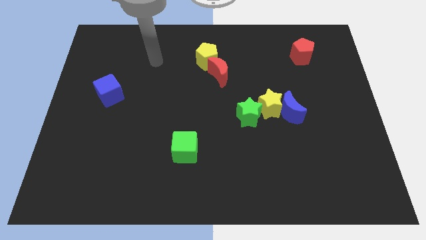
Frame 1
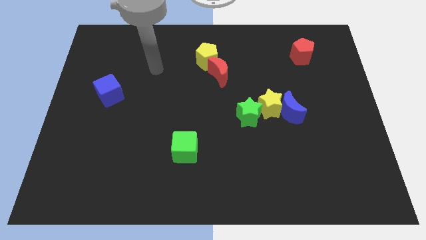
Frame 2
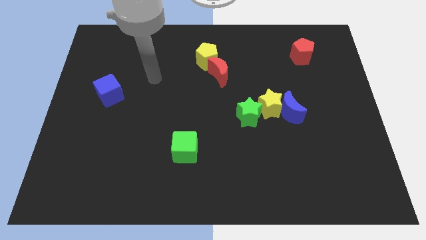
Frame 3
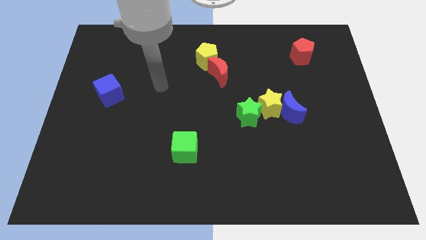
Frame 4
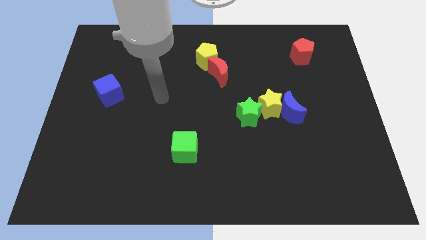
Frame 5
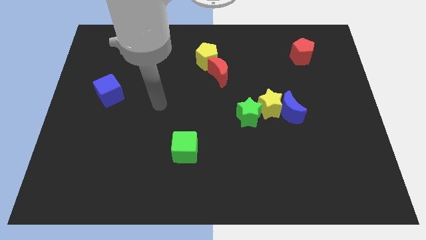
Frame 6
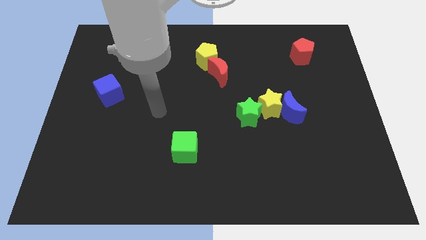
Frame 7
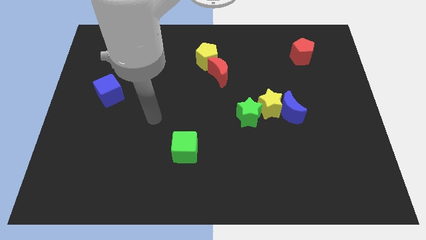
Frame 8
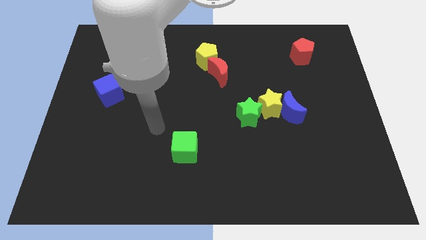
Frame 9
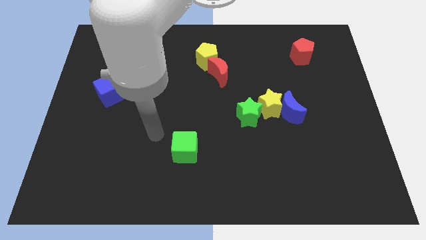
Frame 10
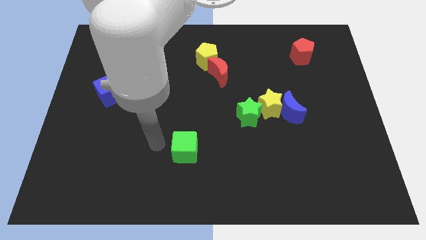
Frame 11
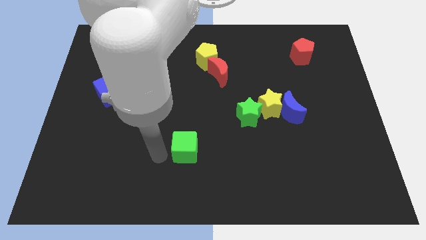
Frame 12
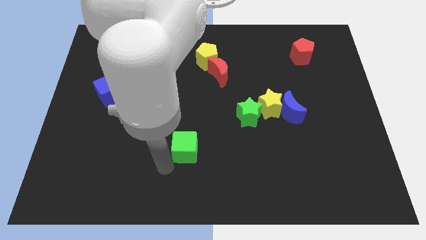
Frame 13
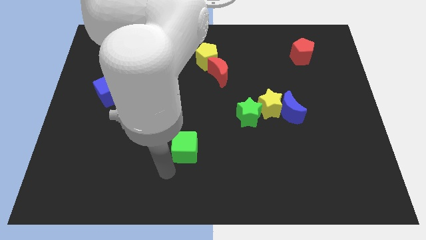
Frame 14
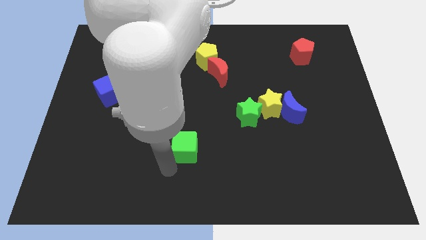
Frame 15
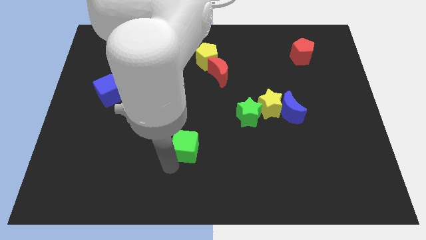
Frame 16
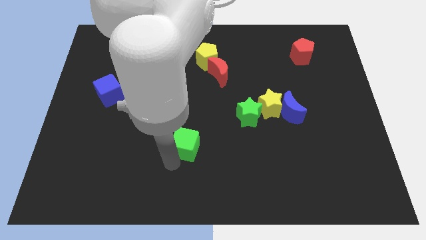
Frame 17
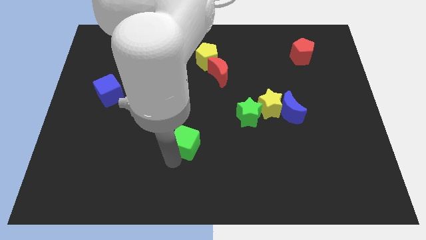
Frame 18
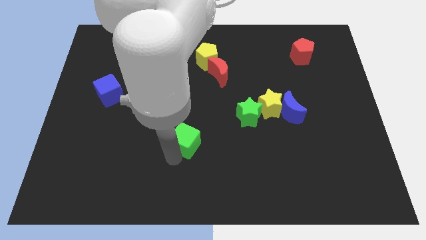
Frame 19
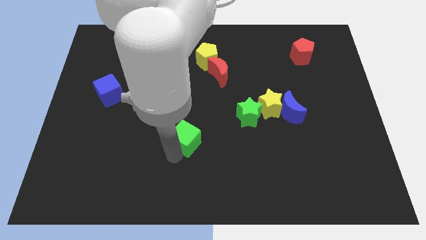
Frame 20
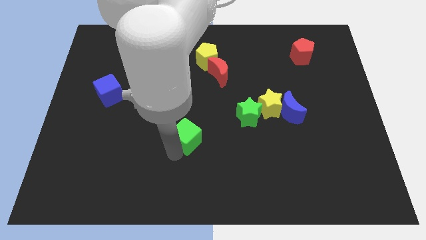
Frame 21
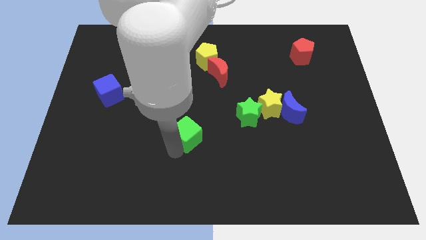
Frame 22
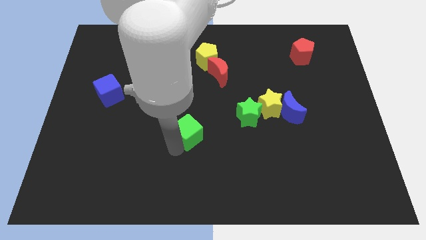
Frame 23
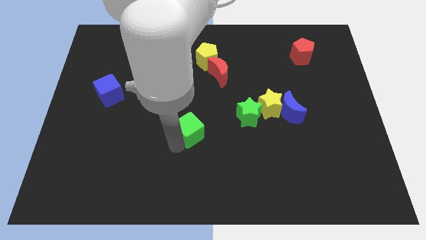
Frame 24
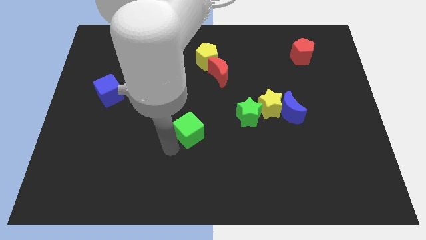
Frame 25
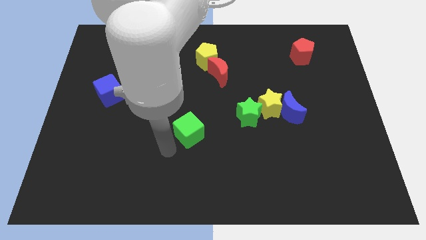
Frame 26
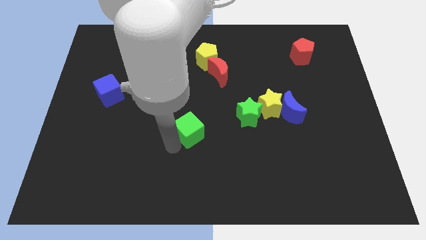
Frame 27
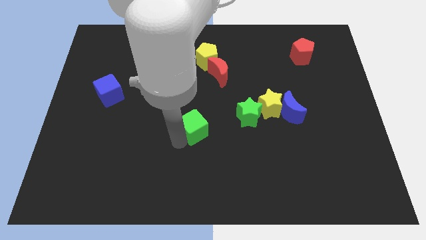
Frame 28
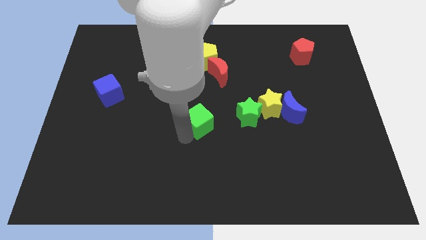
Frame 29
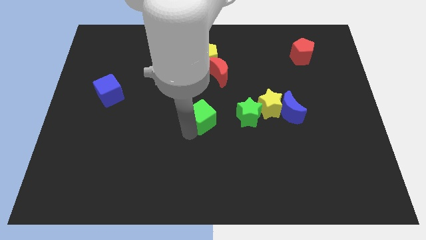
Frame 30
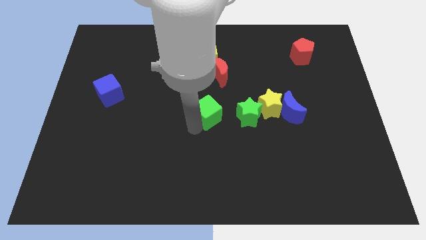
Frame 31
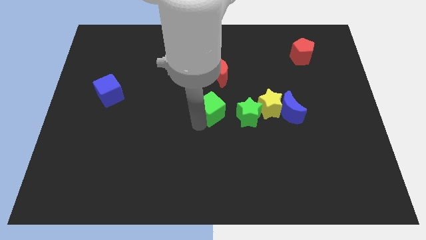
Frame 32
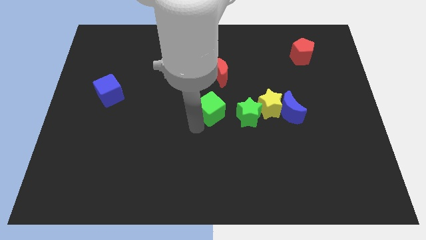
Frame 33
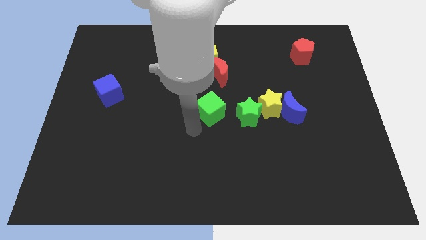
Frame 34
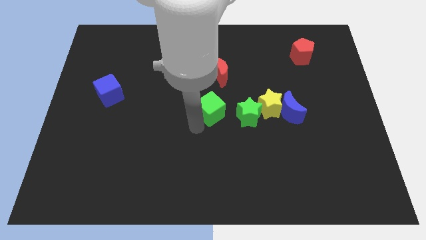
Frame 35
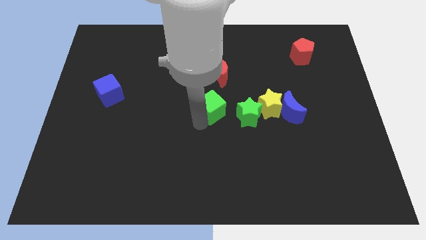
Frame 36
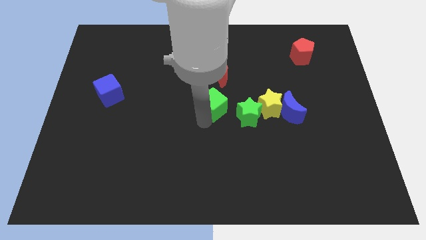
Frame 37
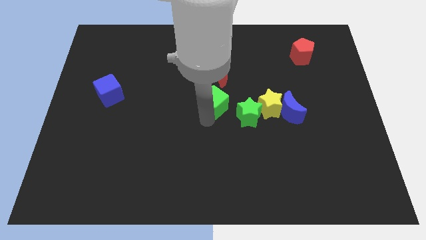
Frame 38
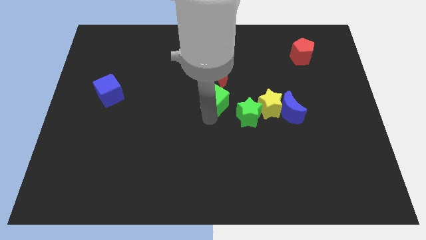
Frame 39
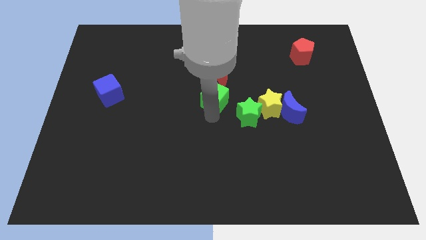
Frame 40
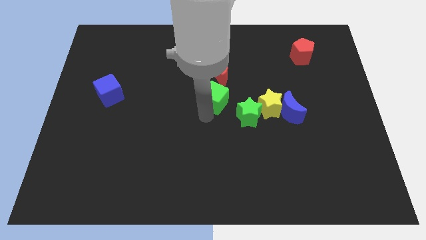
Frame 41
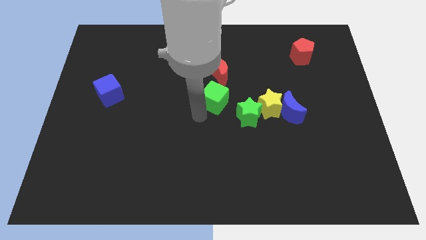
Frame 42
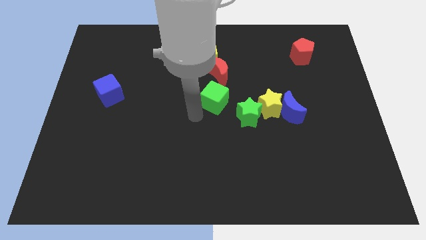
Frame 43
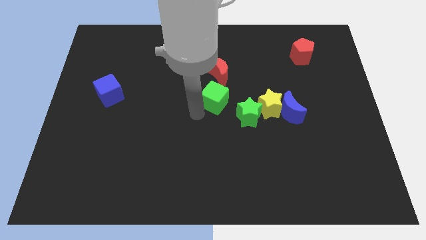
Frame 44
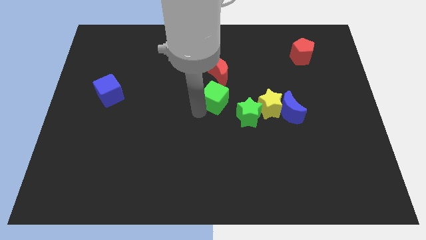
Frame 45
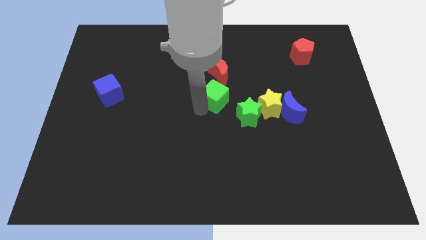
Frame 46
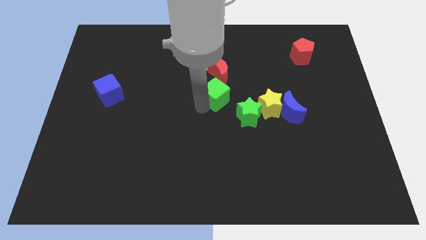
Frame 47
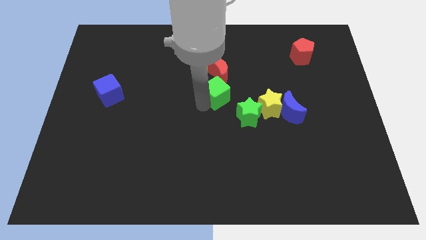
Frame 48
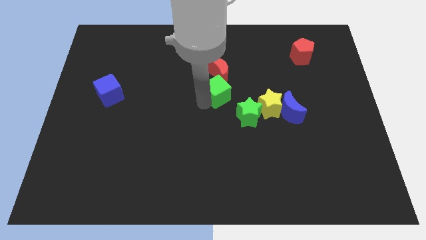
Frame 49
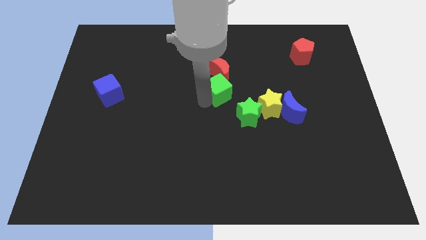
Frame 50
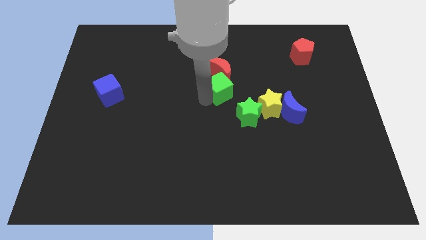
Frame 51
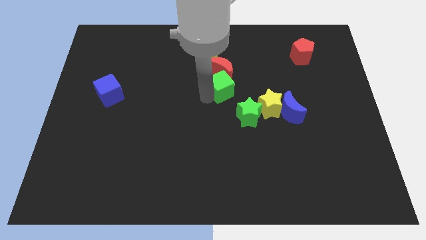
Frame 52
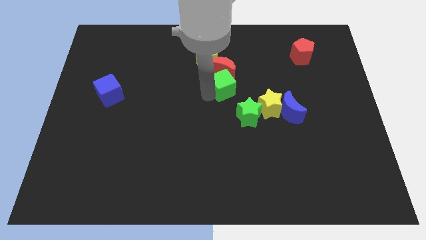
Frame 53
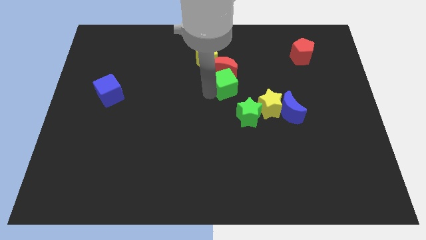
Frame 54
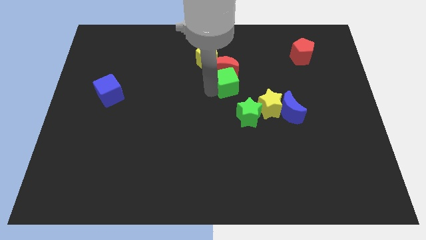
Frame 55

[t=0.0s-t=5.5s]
move the green cube above the green star

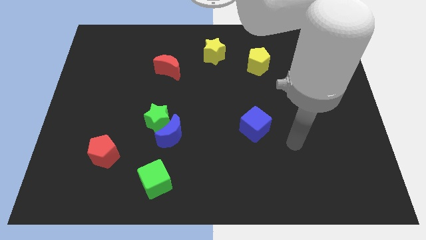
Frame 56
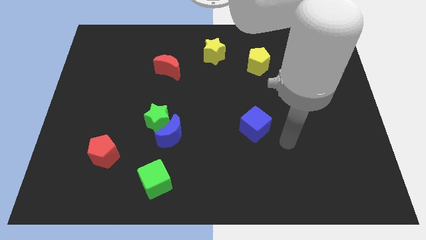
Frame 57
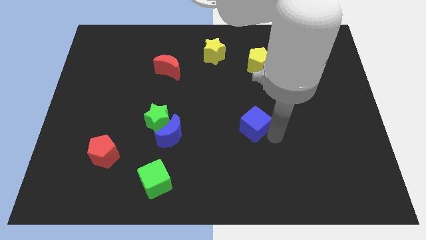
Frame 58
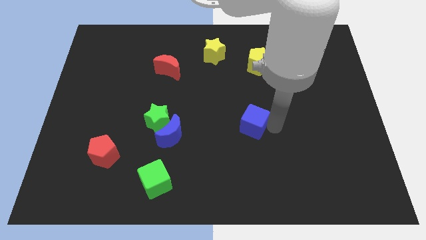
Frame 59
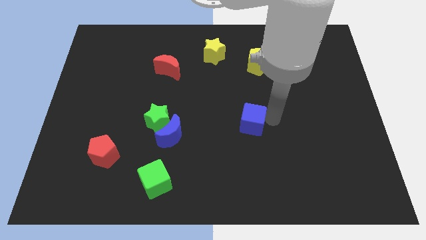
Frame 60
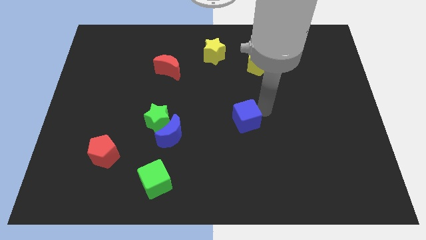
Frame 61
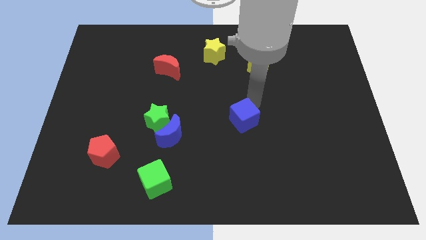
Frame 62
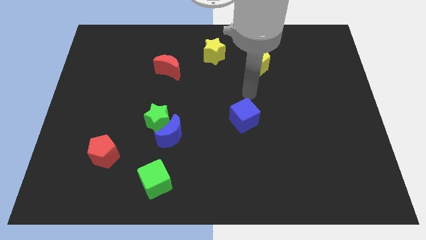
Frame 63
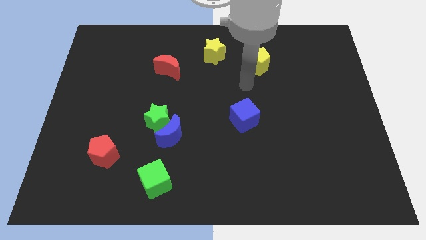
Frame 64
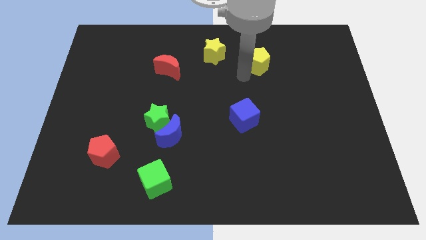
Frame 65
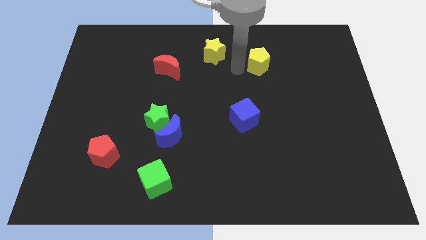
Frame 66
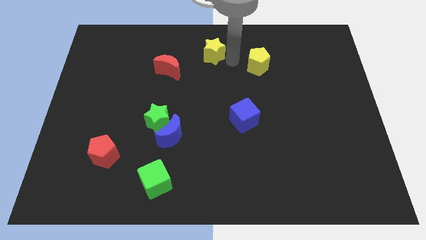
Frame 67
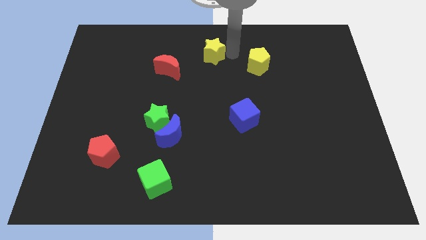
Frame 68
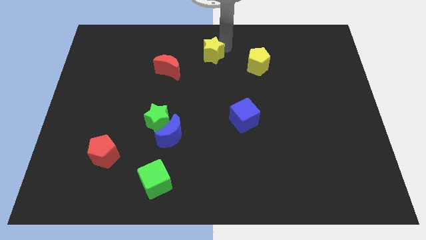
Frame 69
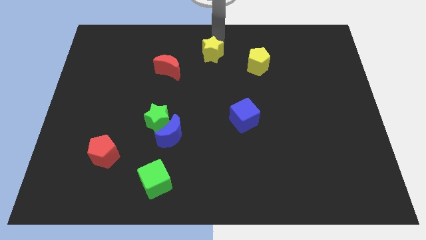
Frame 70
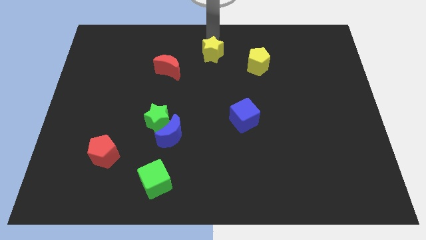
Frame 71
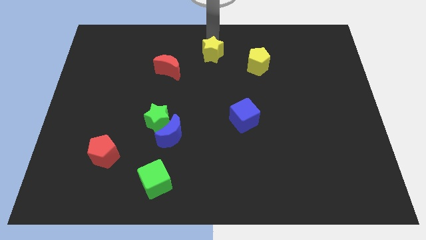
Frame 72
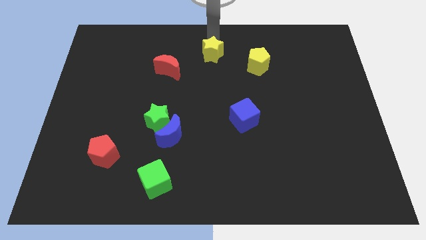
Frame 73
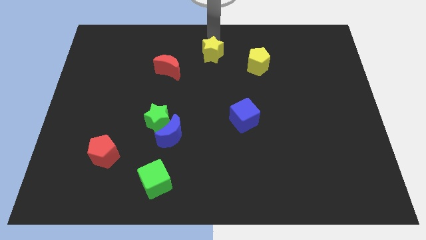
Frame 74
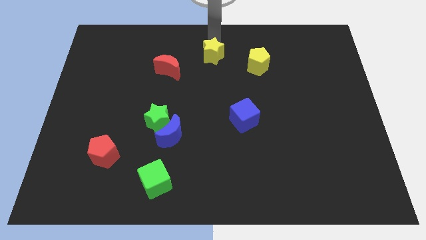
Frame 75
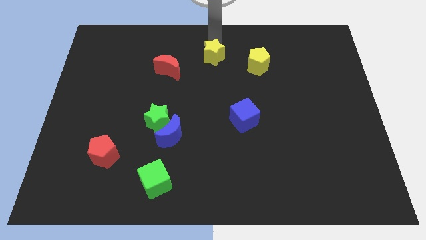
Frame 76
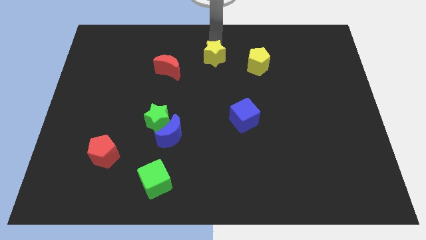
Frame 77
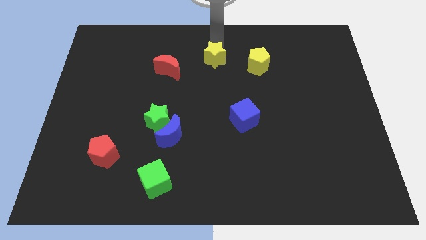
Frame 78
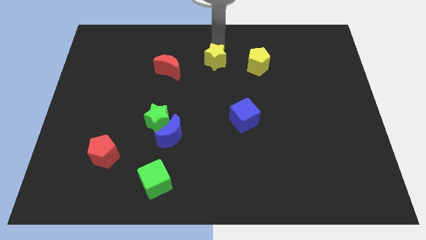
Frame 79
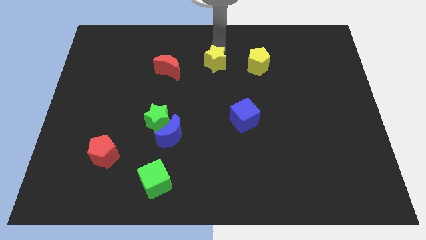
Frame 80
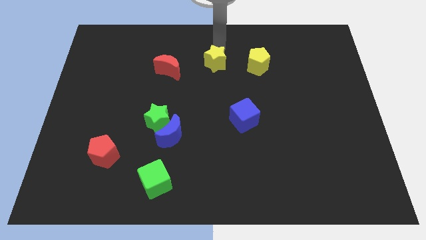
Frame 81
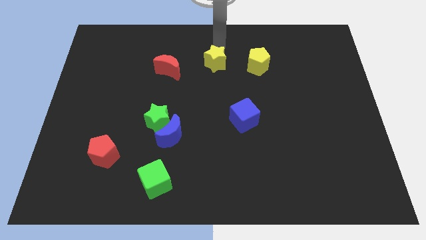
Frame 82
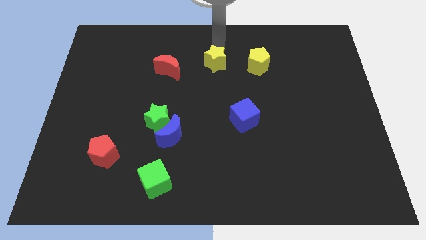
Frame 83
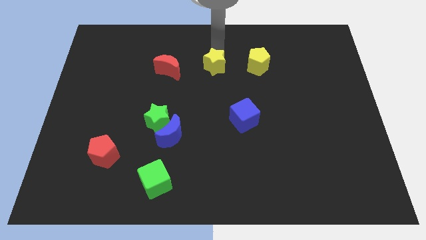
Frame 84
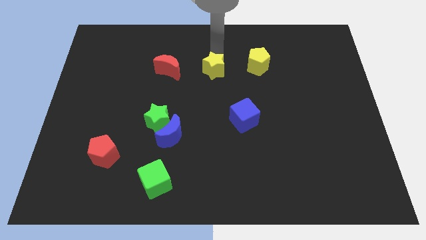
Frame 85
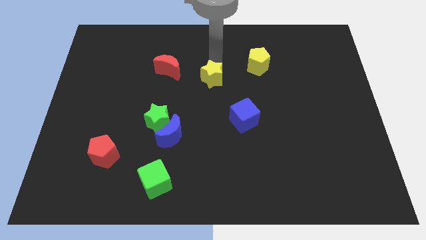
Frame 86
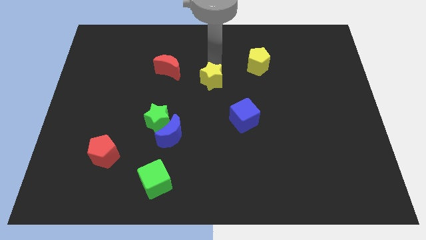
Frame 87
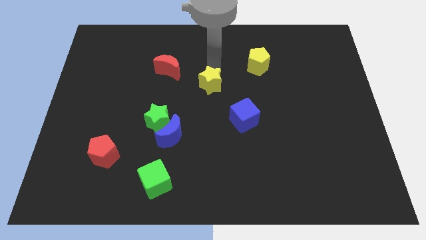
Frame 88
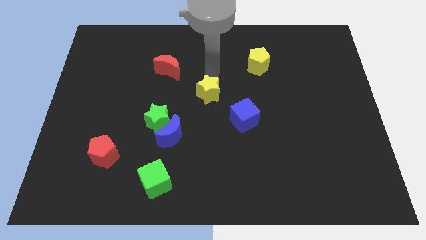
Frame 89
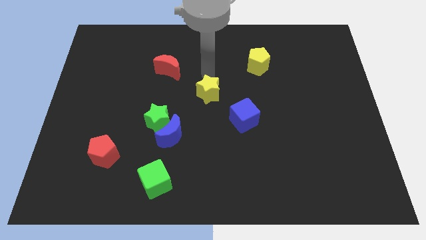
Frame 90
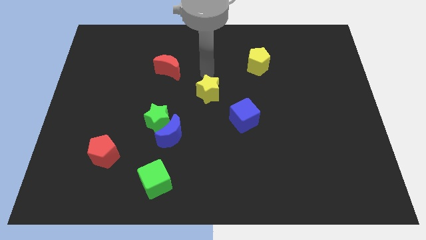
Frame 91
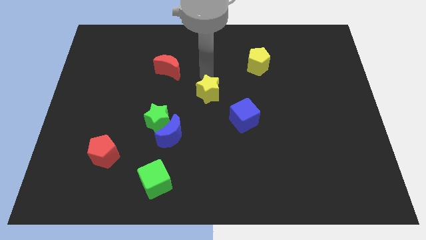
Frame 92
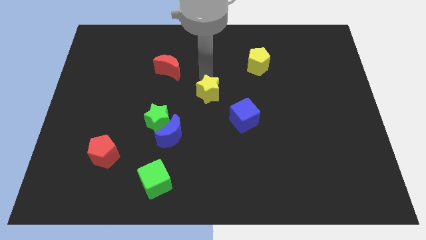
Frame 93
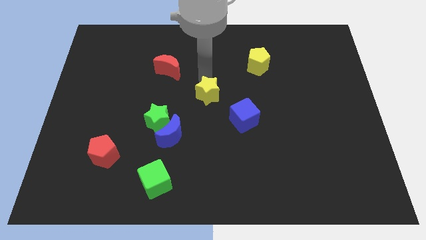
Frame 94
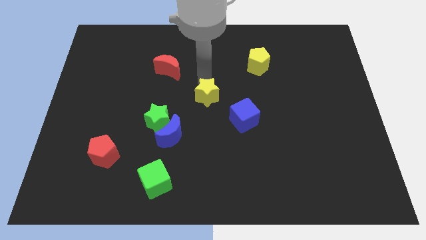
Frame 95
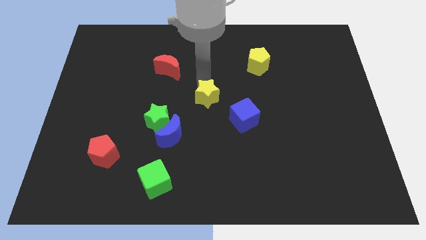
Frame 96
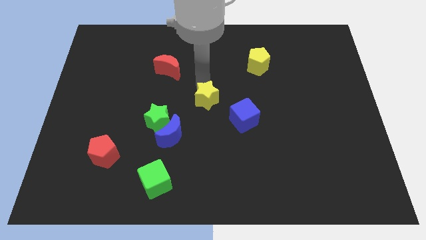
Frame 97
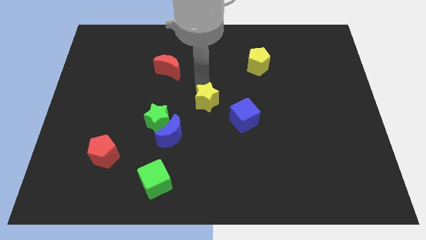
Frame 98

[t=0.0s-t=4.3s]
put the yellow star left of the blue cube
